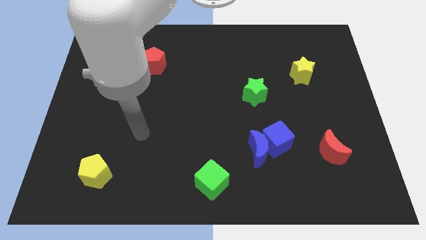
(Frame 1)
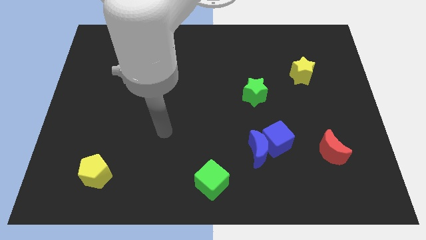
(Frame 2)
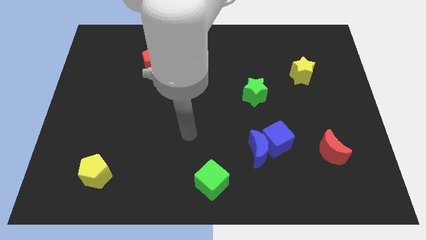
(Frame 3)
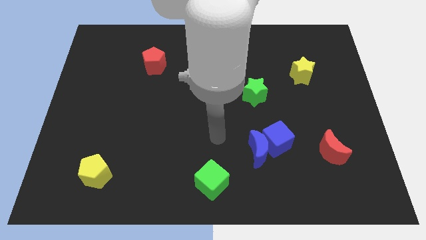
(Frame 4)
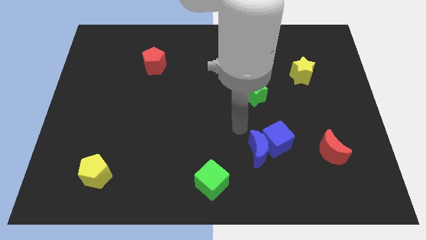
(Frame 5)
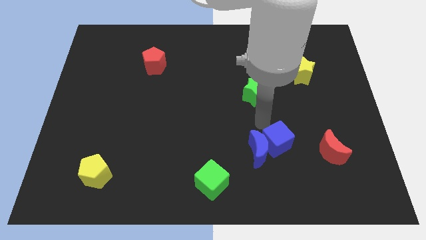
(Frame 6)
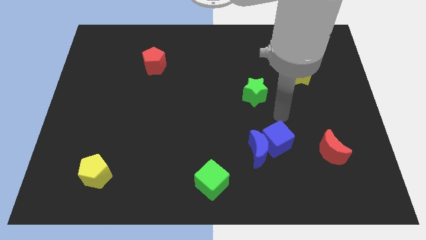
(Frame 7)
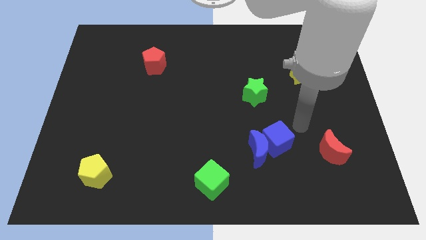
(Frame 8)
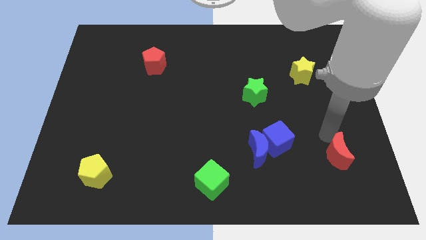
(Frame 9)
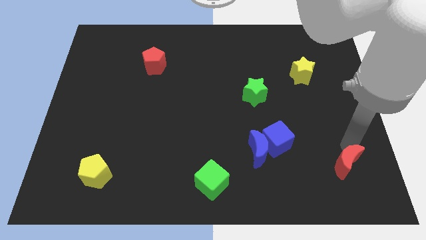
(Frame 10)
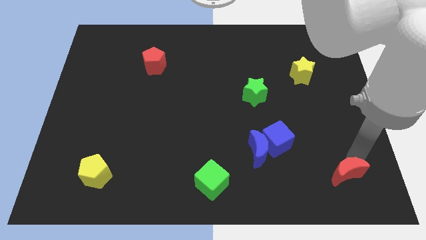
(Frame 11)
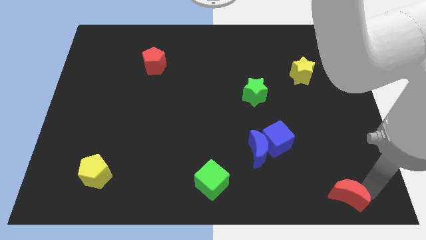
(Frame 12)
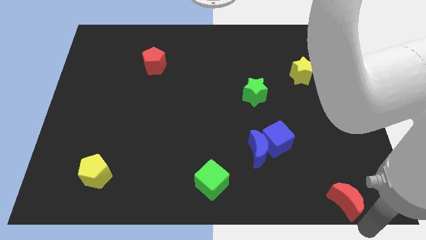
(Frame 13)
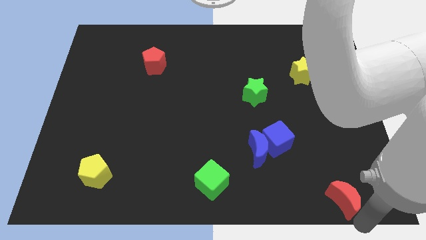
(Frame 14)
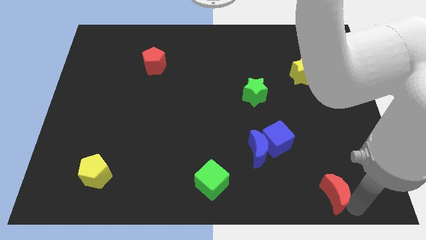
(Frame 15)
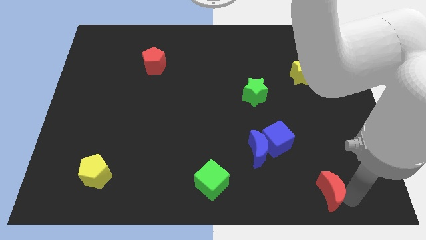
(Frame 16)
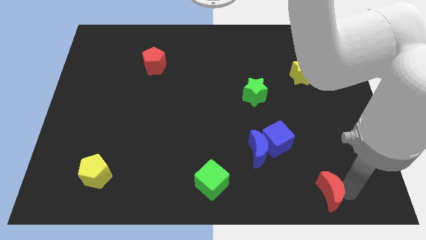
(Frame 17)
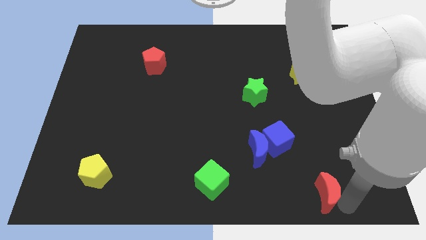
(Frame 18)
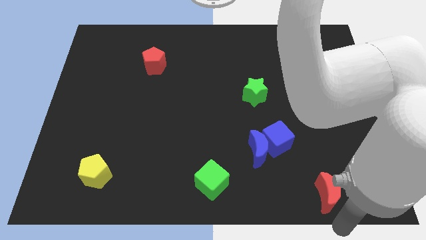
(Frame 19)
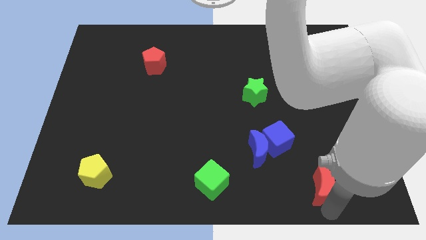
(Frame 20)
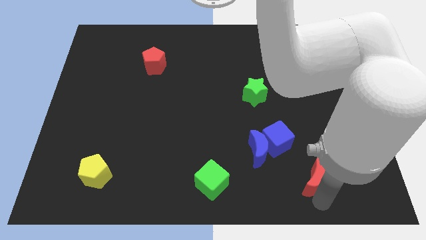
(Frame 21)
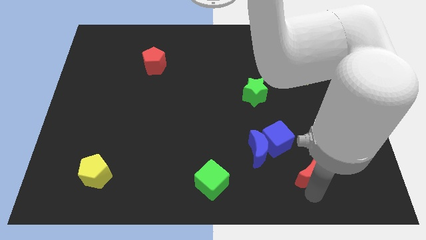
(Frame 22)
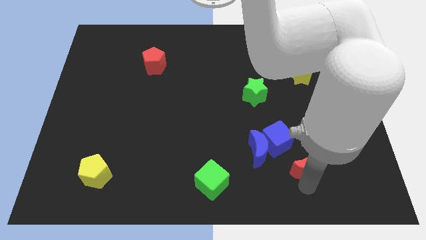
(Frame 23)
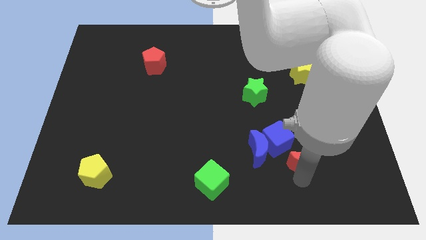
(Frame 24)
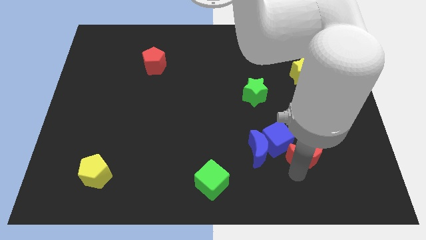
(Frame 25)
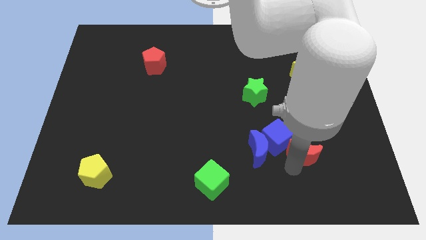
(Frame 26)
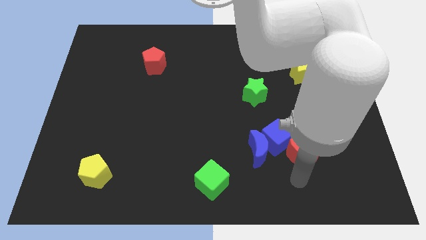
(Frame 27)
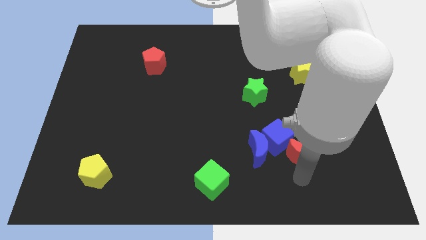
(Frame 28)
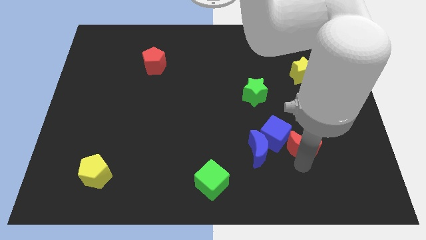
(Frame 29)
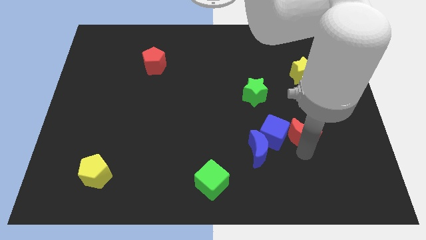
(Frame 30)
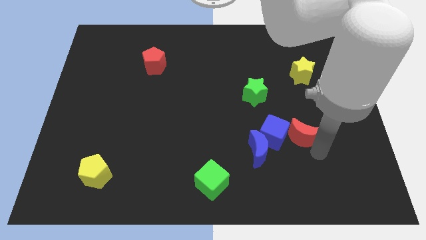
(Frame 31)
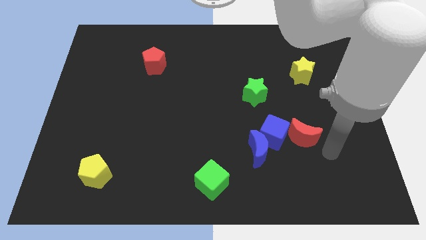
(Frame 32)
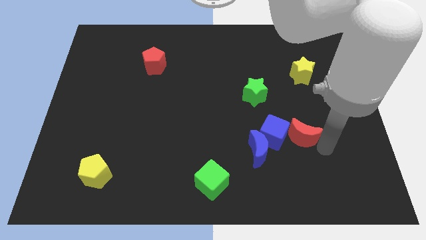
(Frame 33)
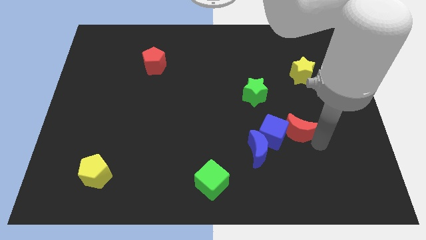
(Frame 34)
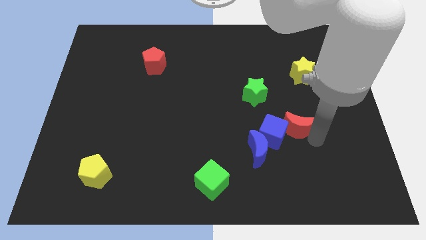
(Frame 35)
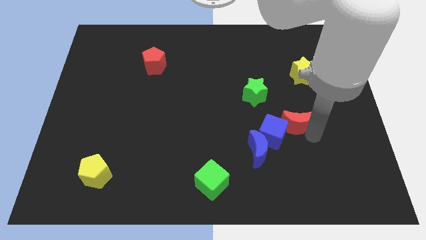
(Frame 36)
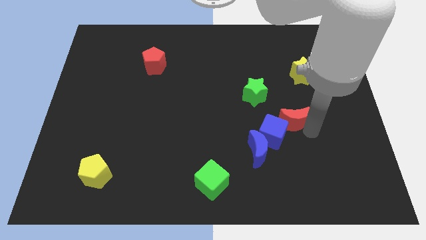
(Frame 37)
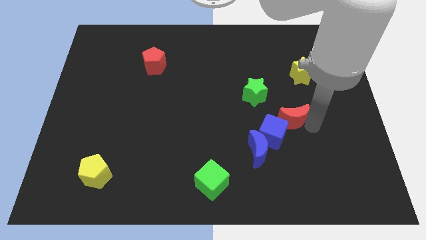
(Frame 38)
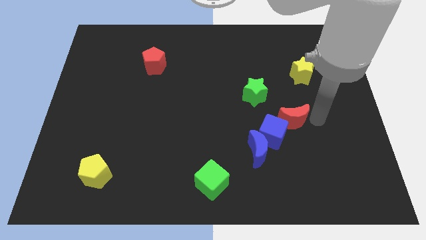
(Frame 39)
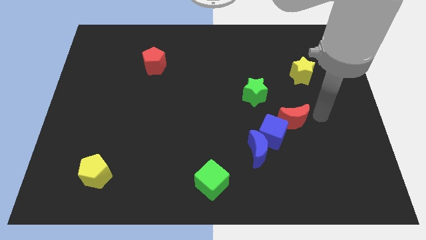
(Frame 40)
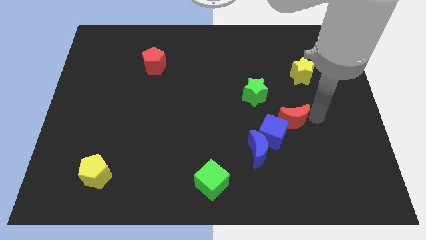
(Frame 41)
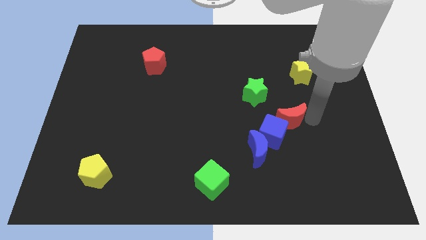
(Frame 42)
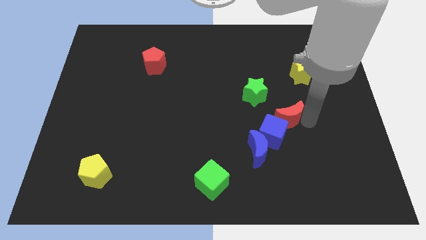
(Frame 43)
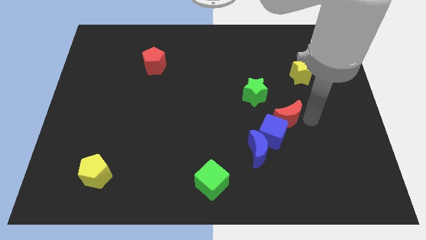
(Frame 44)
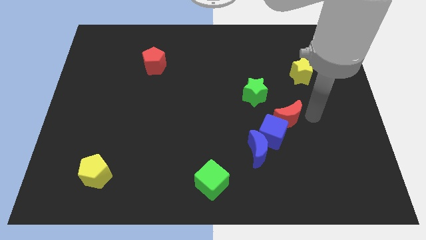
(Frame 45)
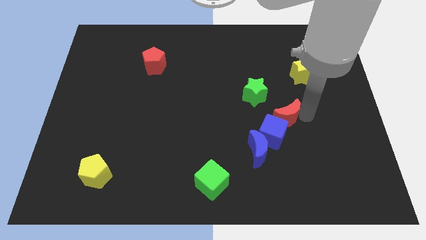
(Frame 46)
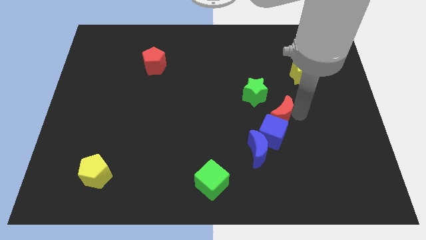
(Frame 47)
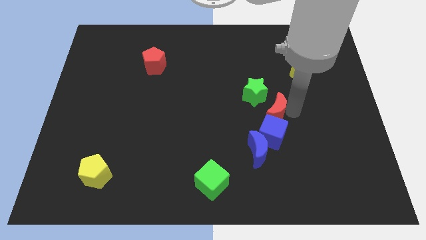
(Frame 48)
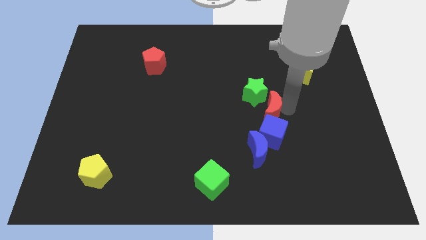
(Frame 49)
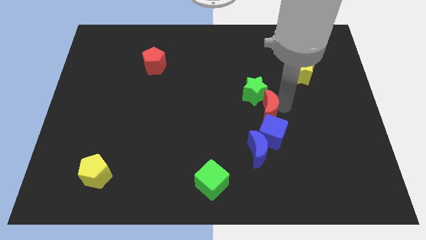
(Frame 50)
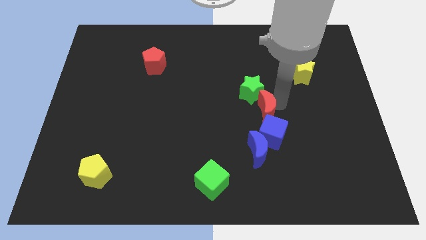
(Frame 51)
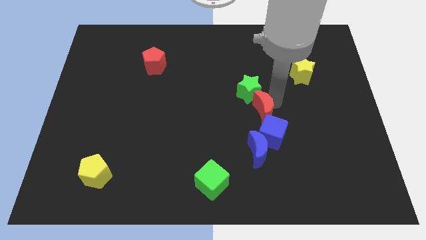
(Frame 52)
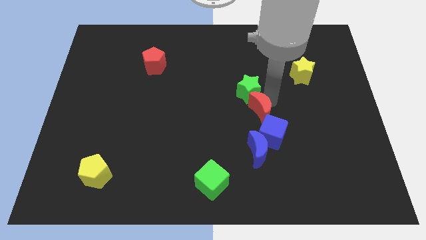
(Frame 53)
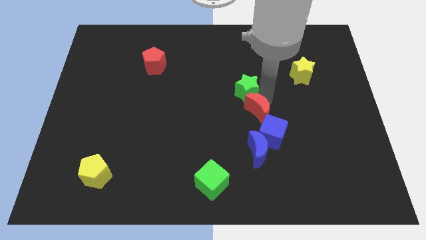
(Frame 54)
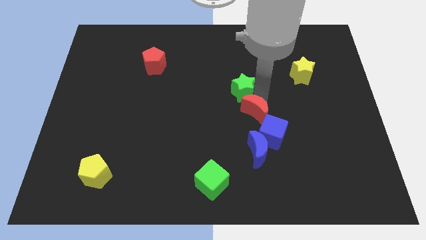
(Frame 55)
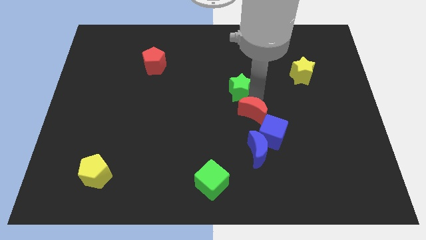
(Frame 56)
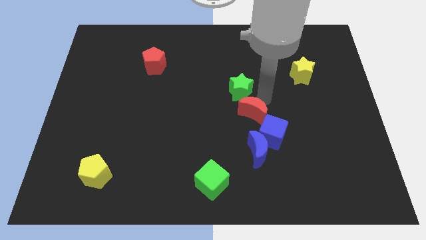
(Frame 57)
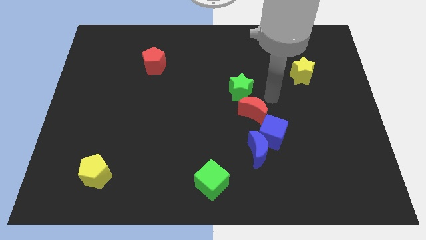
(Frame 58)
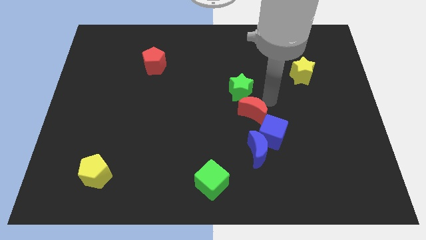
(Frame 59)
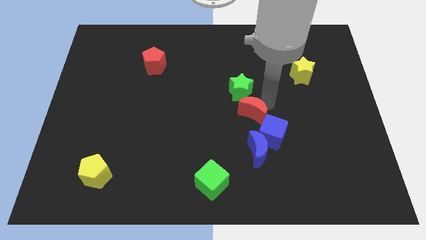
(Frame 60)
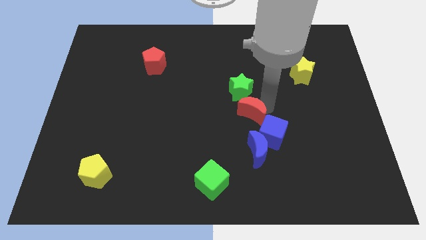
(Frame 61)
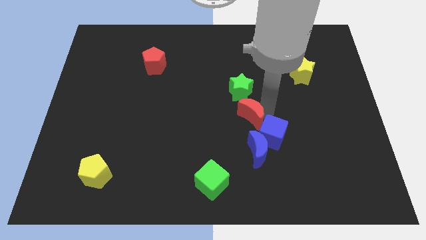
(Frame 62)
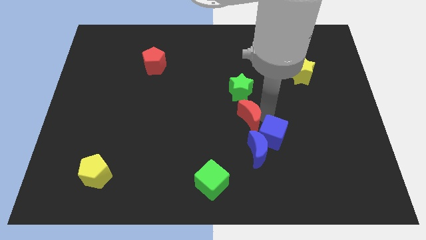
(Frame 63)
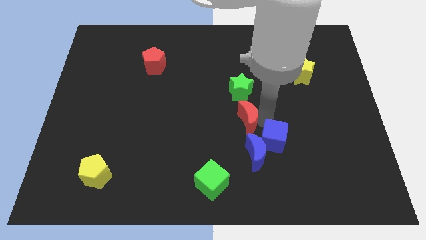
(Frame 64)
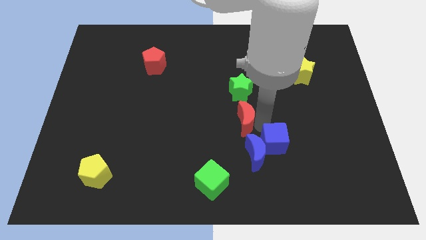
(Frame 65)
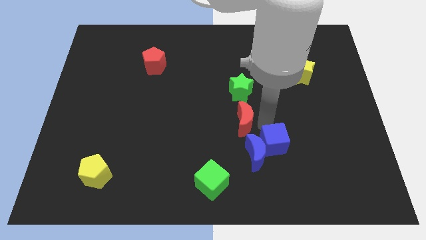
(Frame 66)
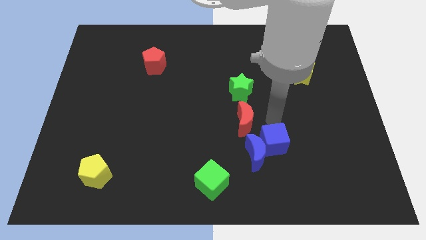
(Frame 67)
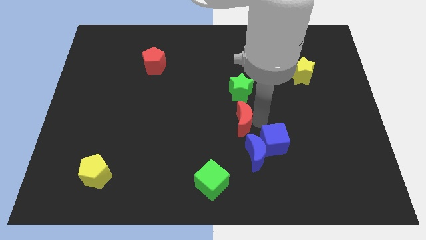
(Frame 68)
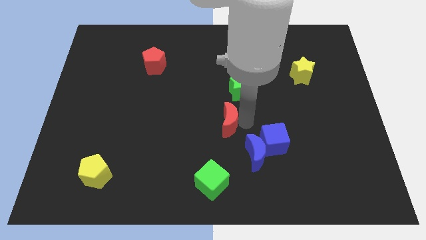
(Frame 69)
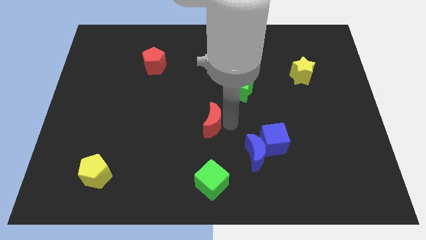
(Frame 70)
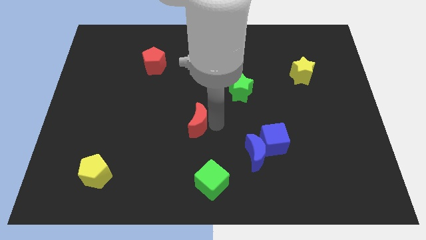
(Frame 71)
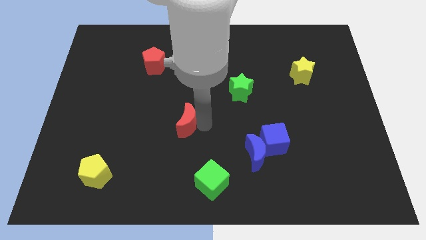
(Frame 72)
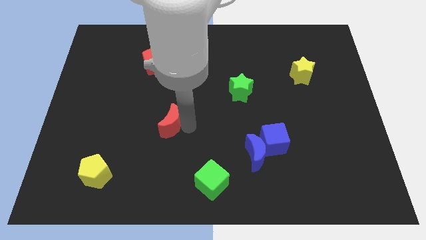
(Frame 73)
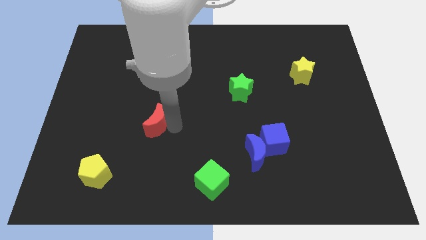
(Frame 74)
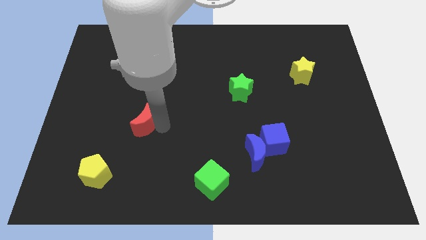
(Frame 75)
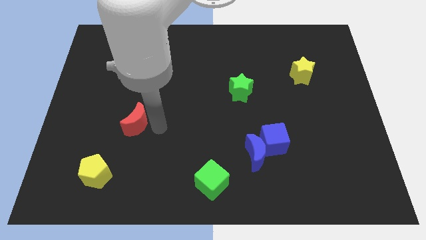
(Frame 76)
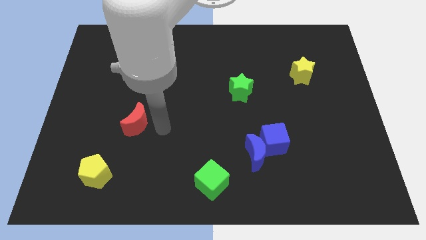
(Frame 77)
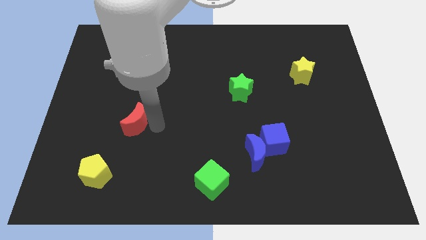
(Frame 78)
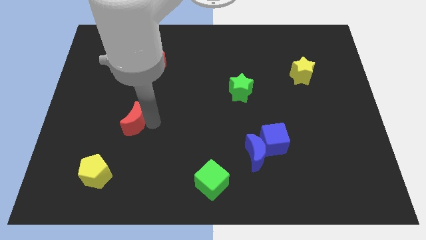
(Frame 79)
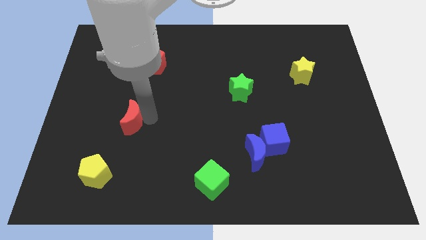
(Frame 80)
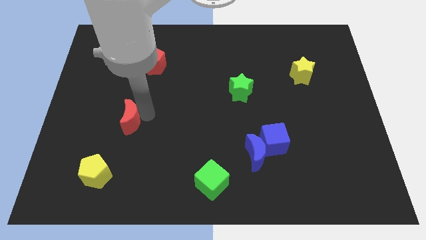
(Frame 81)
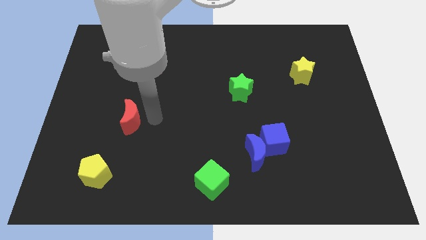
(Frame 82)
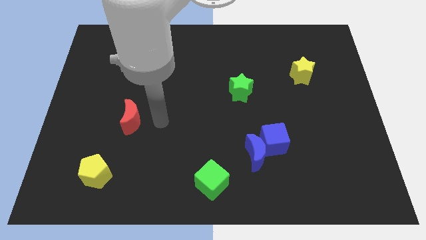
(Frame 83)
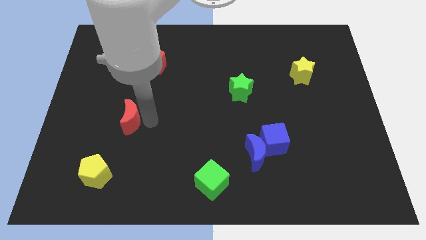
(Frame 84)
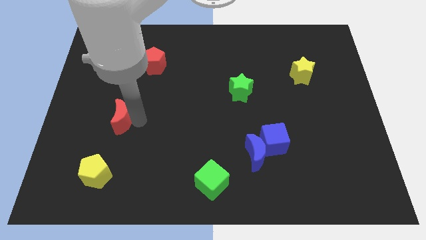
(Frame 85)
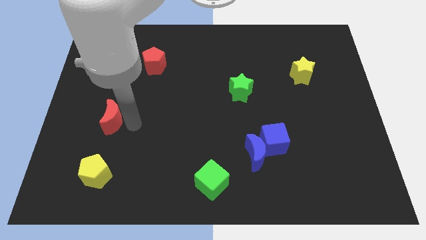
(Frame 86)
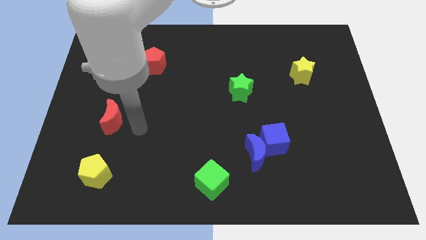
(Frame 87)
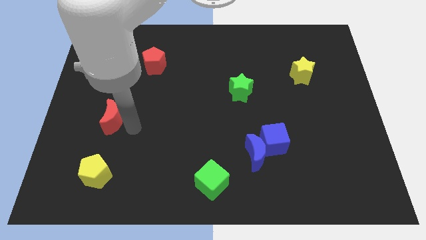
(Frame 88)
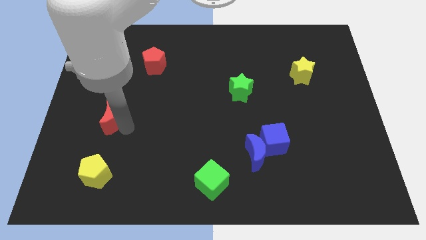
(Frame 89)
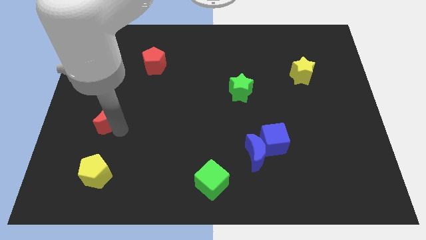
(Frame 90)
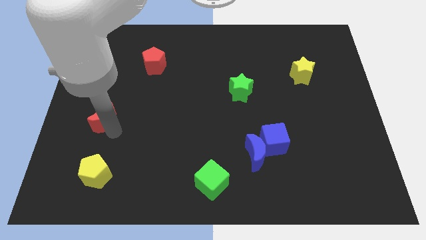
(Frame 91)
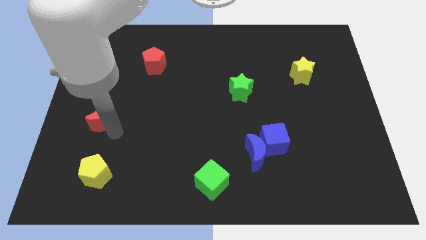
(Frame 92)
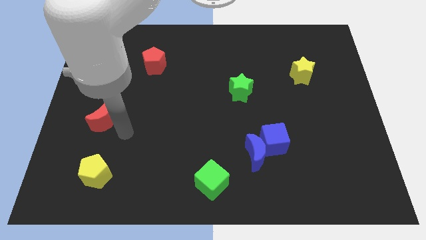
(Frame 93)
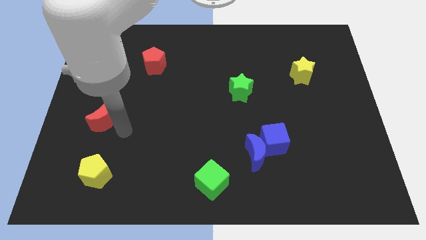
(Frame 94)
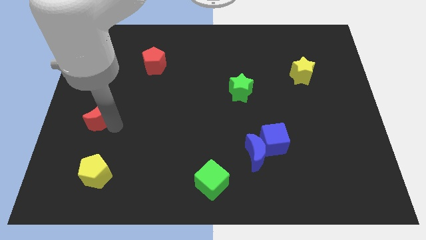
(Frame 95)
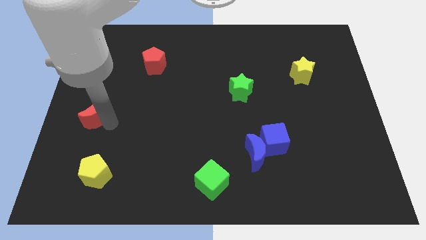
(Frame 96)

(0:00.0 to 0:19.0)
move the red moon to the left side
